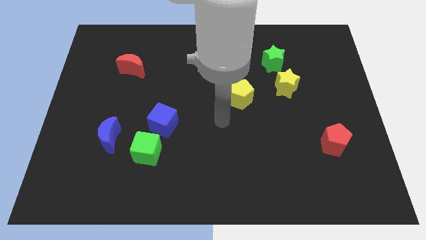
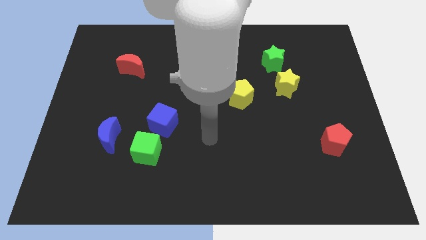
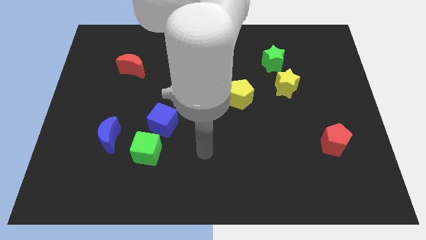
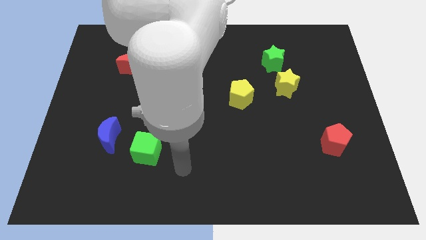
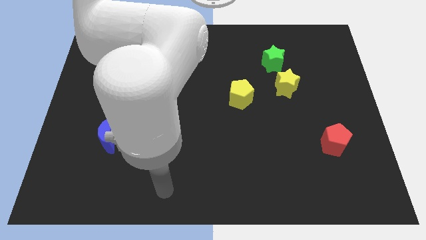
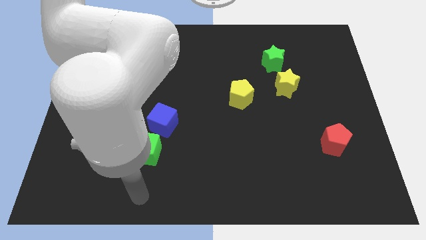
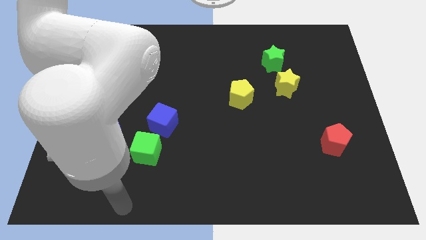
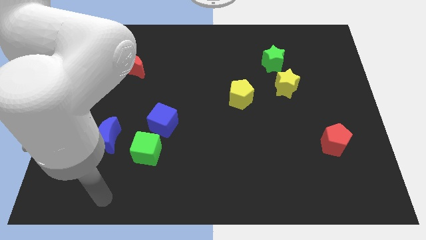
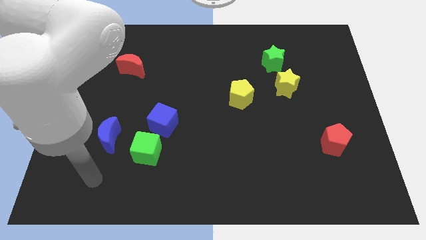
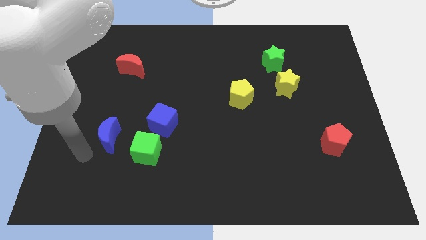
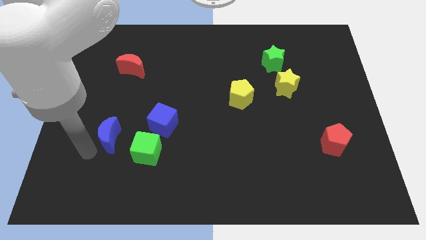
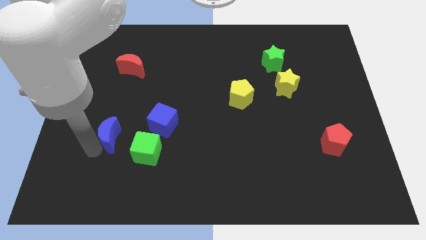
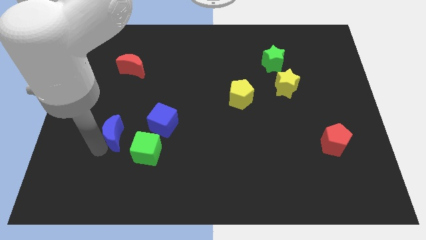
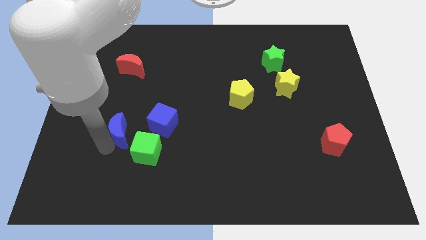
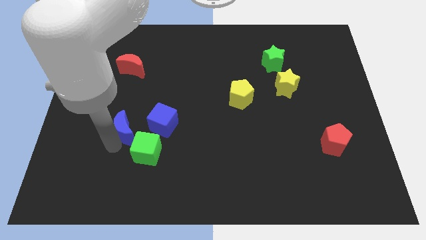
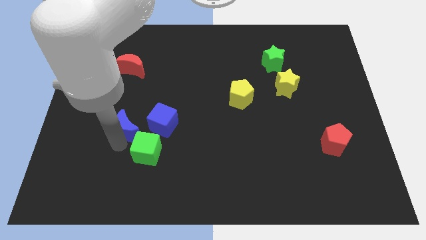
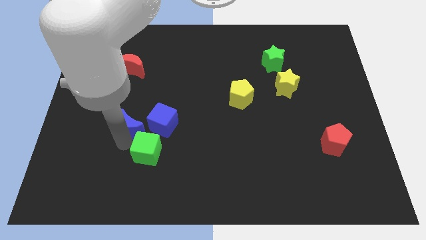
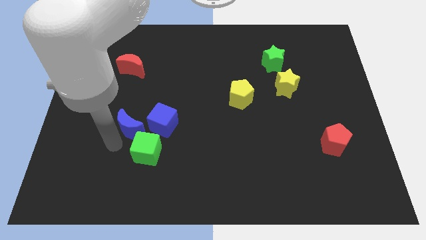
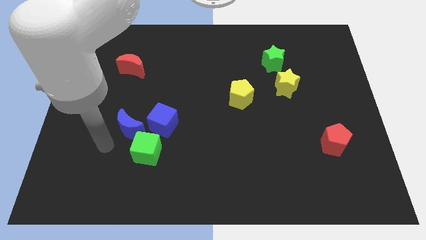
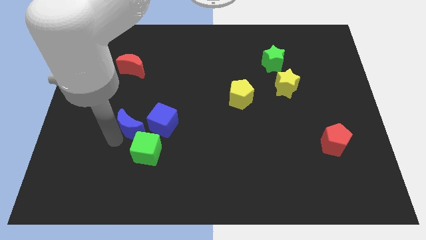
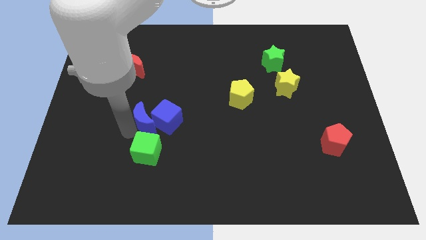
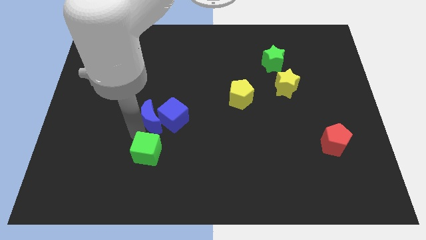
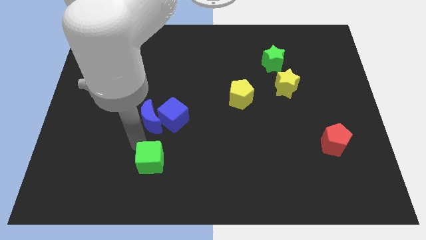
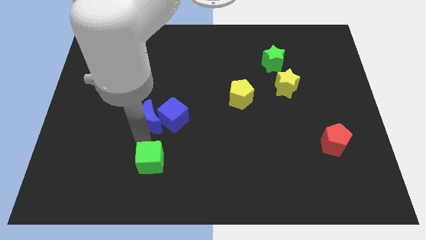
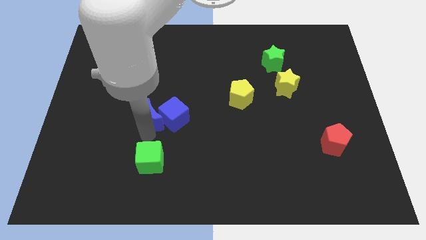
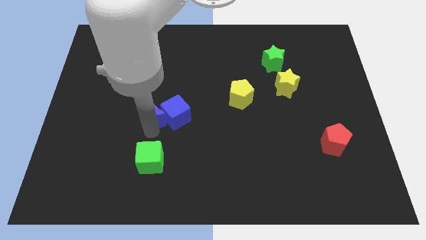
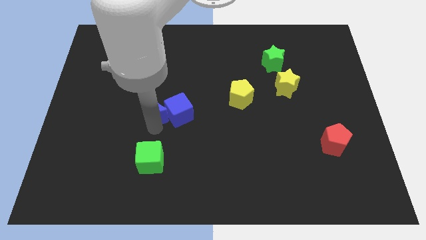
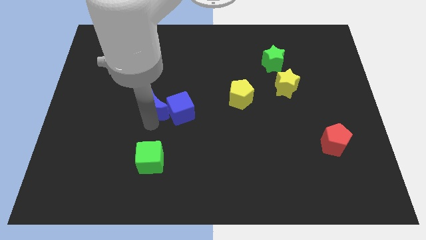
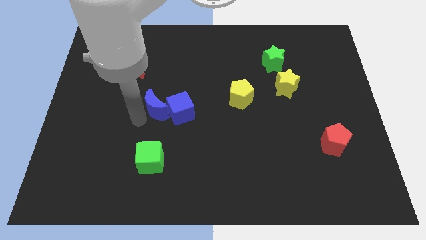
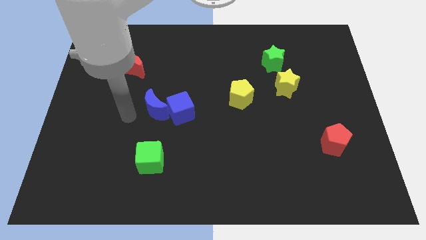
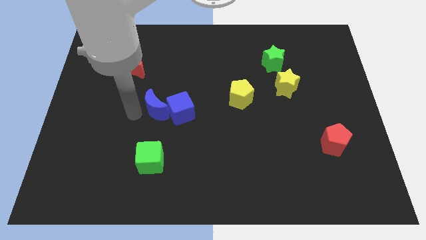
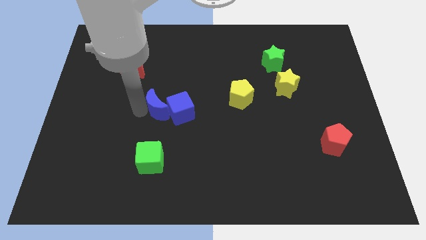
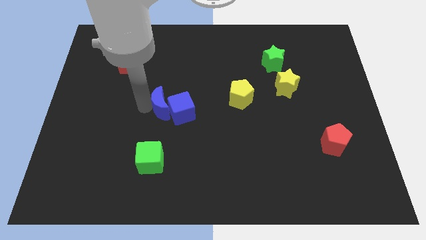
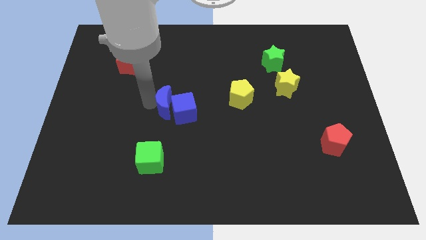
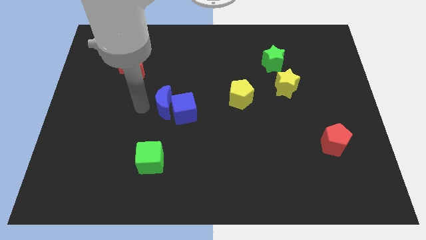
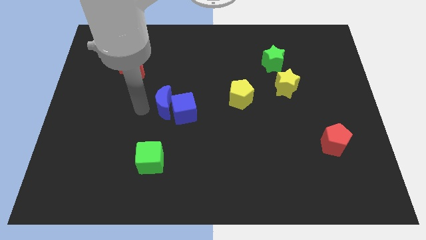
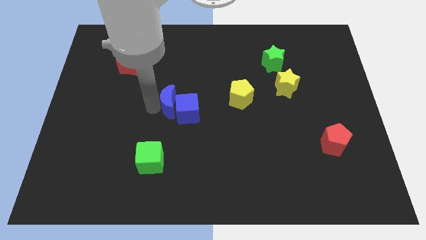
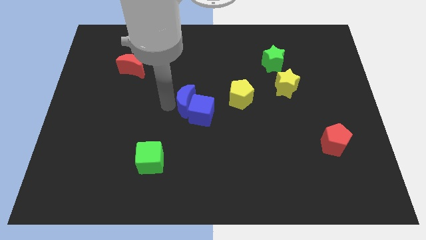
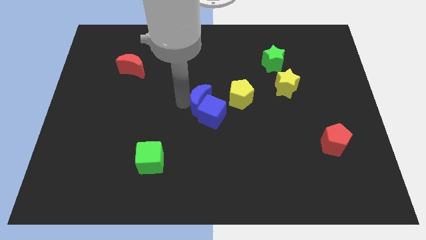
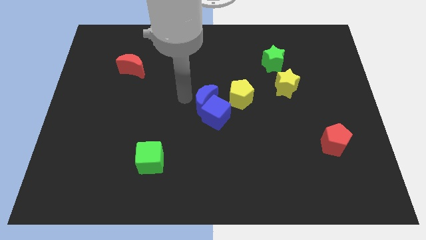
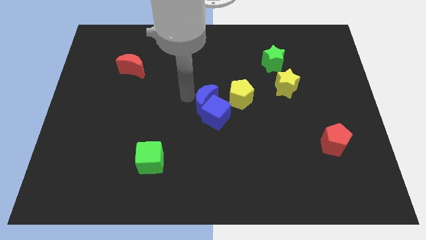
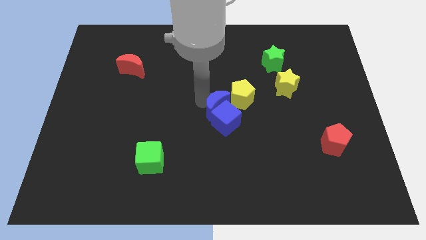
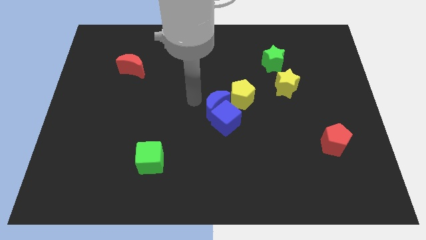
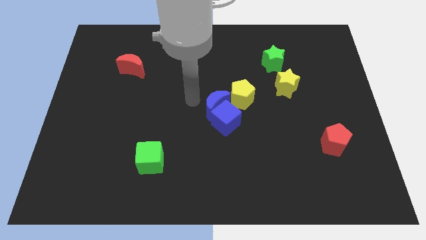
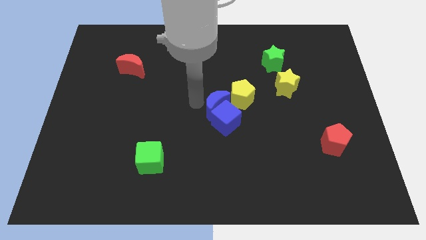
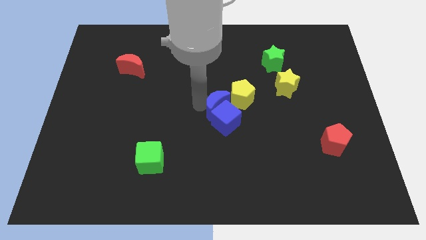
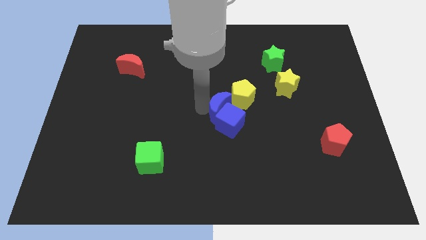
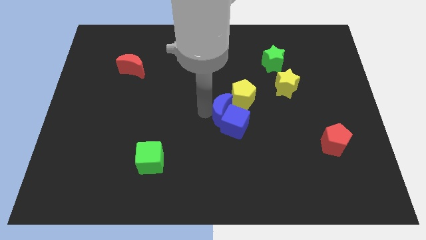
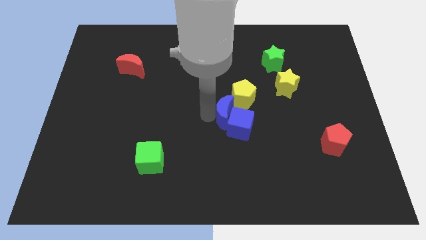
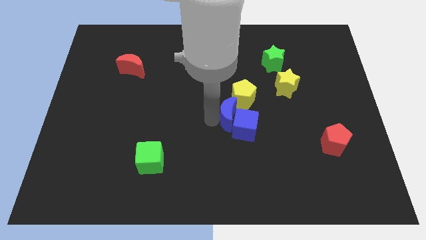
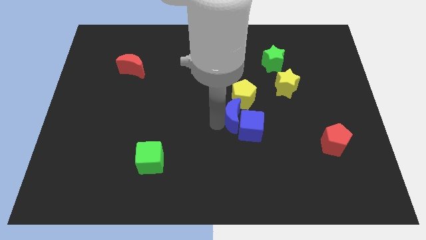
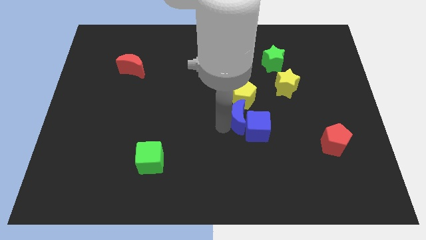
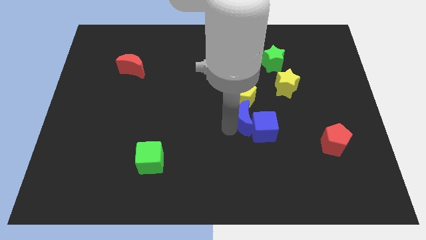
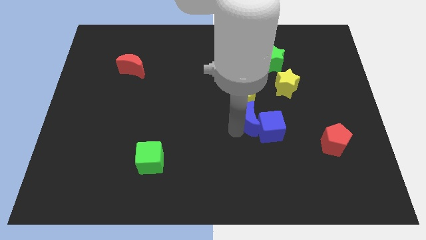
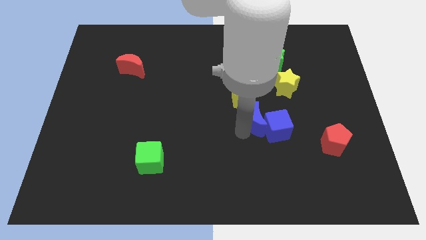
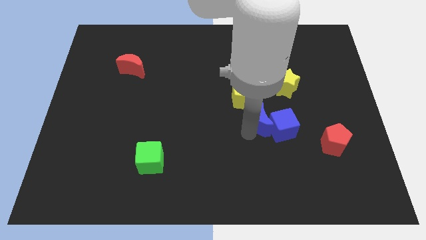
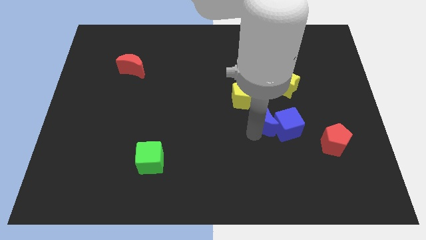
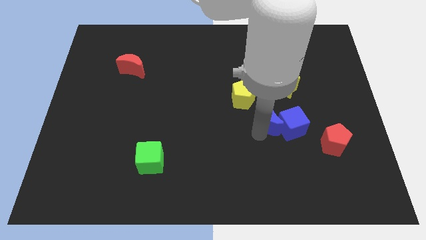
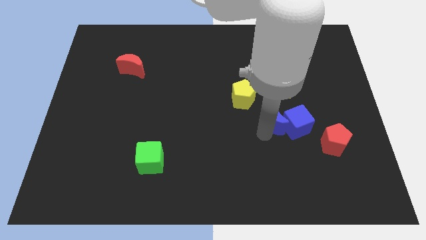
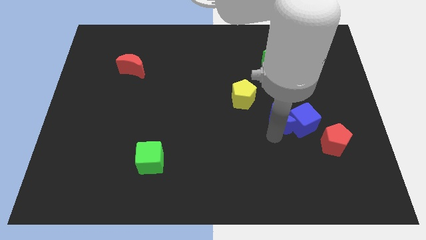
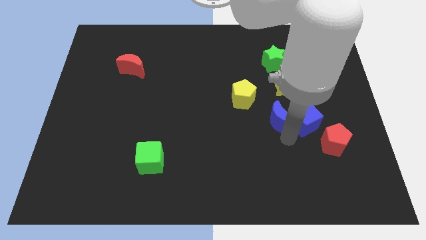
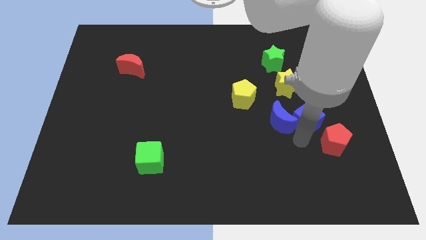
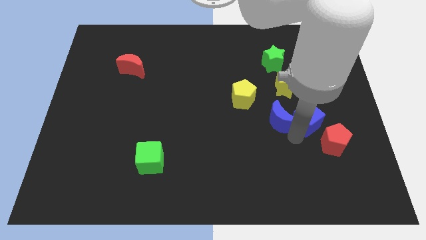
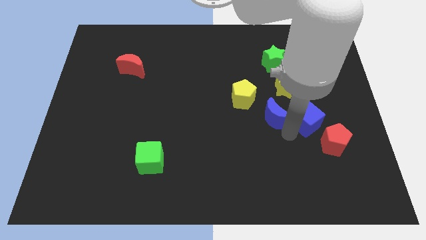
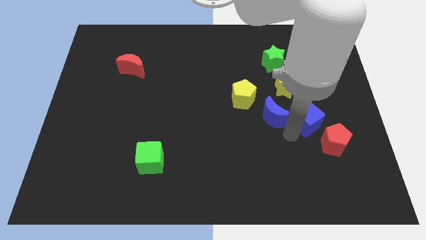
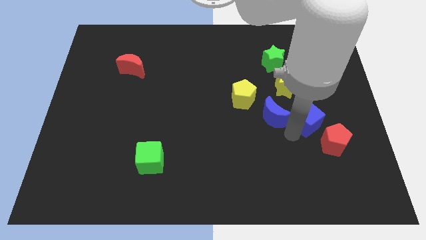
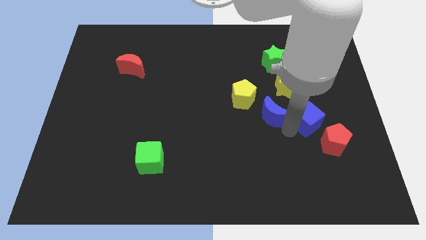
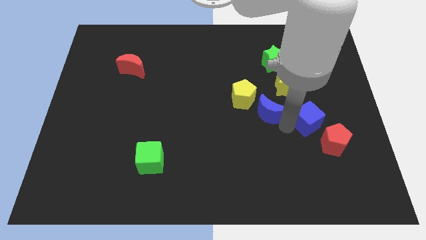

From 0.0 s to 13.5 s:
move the blue moon just right of the yellow pentagon
